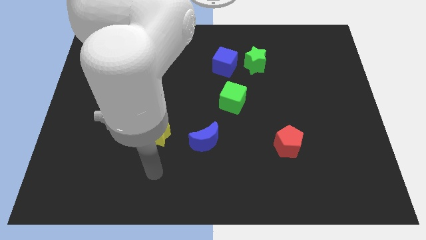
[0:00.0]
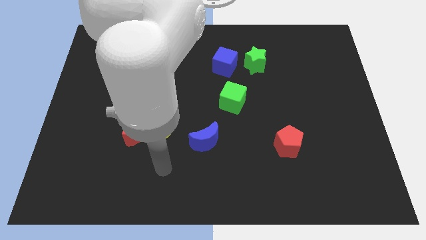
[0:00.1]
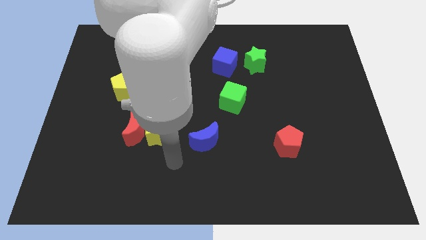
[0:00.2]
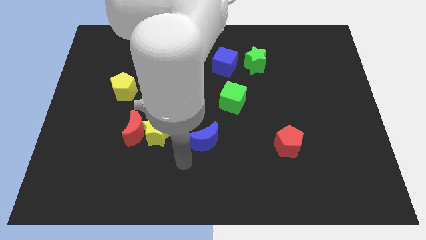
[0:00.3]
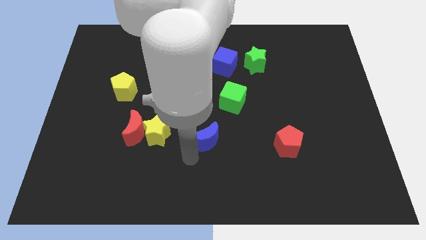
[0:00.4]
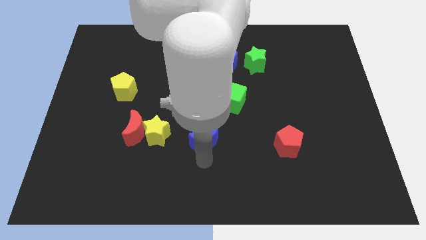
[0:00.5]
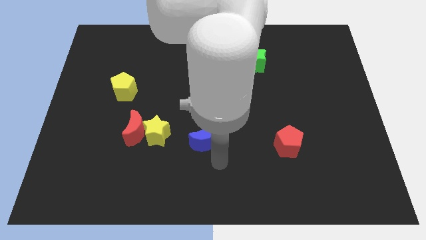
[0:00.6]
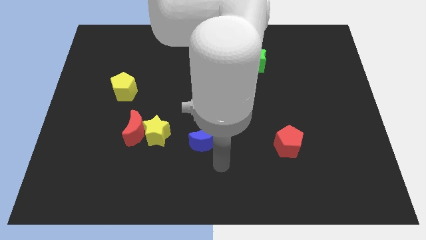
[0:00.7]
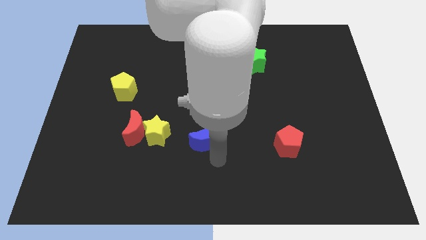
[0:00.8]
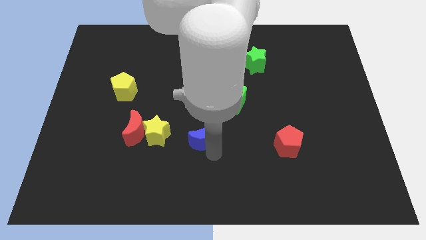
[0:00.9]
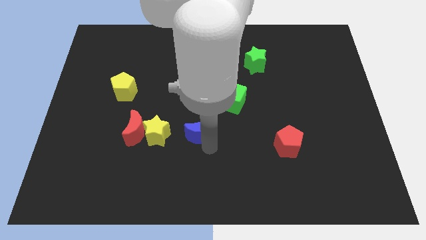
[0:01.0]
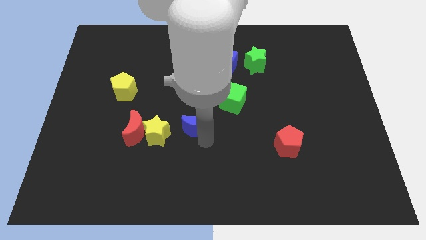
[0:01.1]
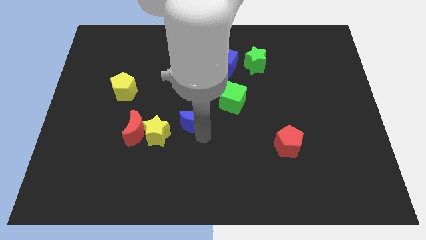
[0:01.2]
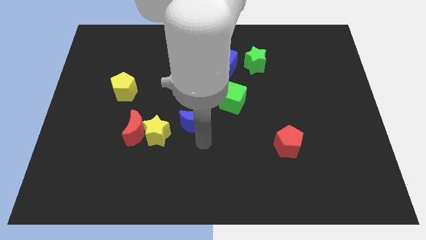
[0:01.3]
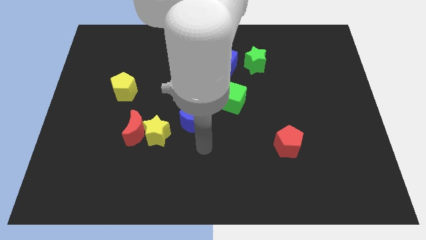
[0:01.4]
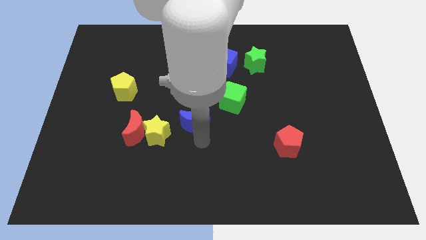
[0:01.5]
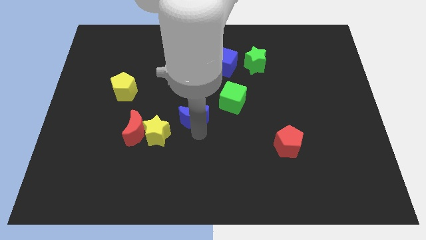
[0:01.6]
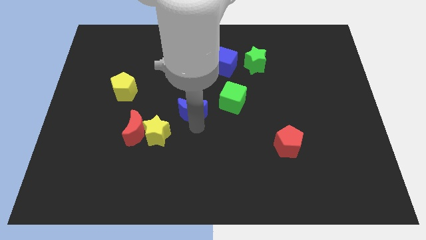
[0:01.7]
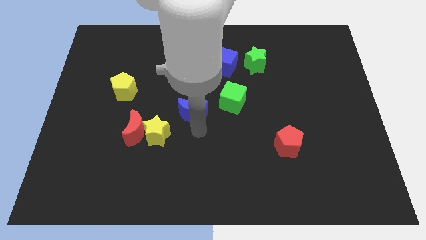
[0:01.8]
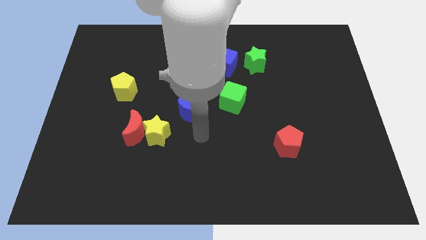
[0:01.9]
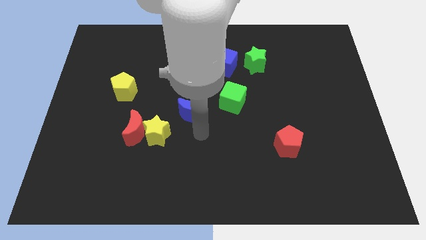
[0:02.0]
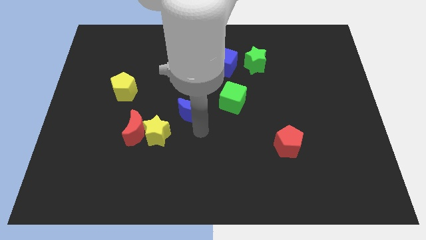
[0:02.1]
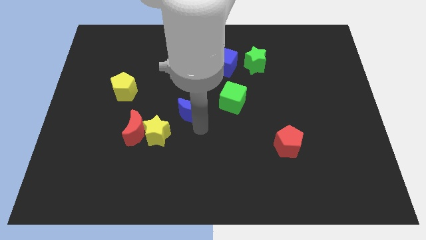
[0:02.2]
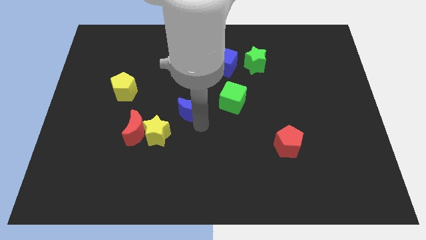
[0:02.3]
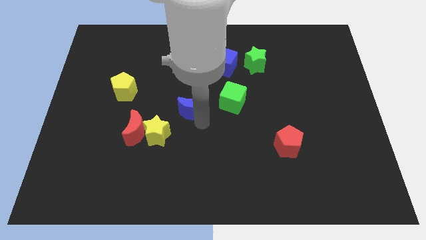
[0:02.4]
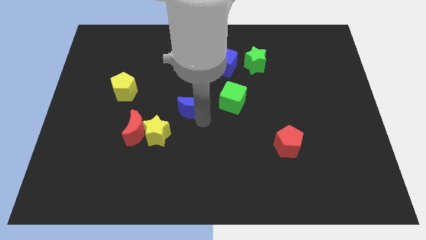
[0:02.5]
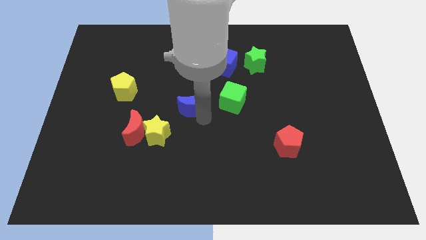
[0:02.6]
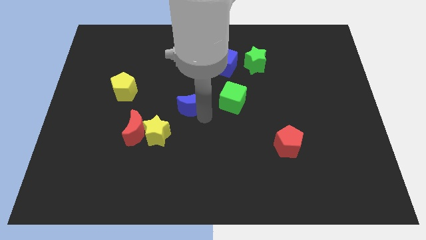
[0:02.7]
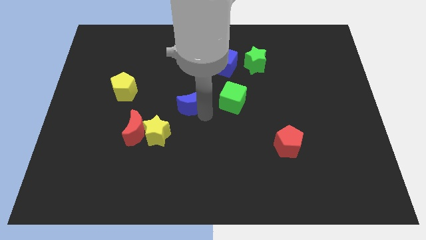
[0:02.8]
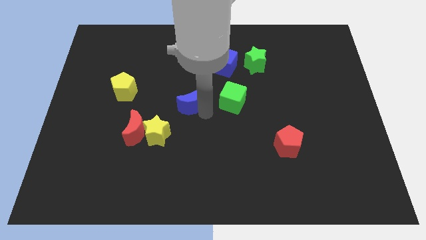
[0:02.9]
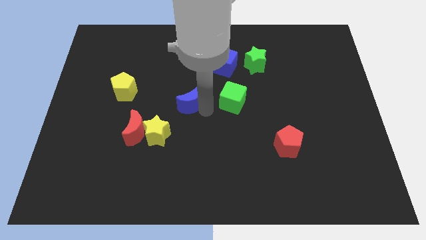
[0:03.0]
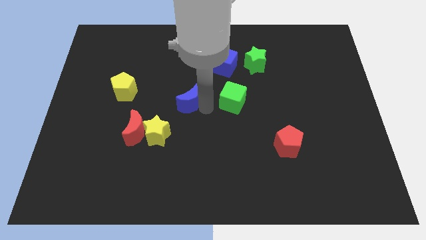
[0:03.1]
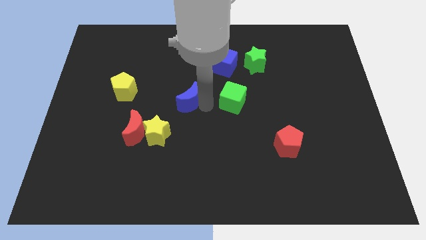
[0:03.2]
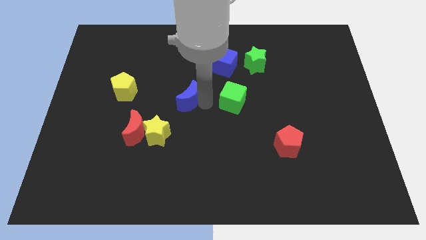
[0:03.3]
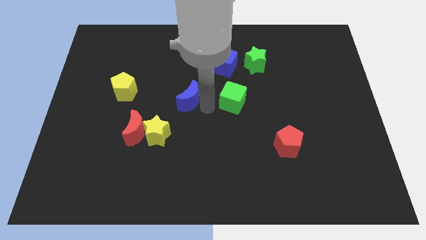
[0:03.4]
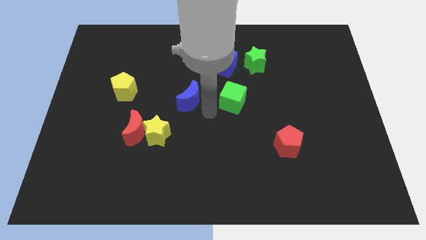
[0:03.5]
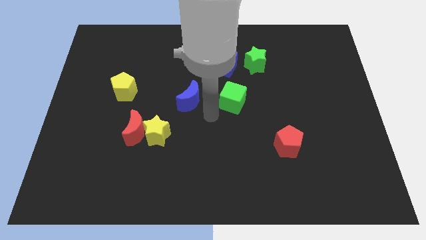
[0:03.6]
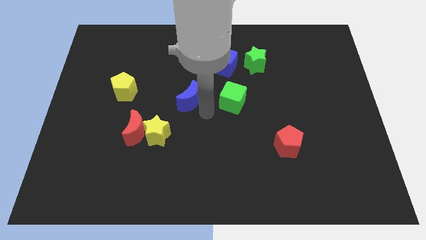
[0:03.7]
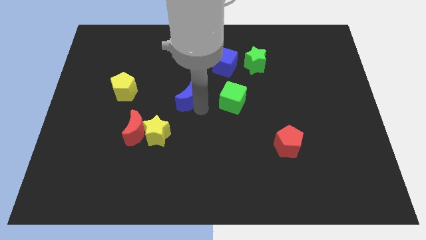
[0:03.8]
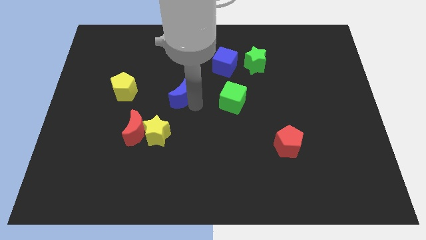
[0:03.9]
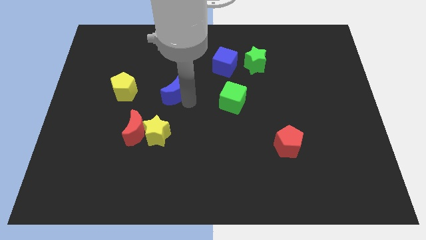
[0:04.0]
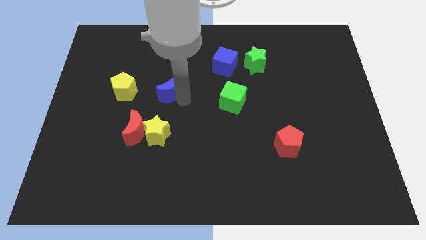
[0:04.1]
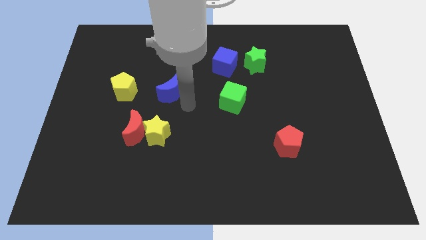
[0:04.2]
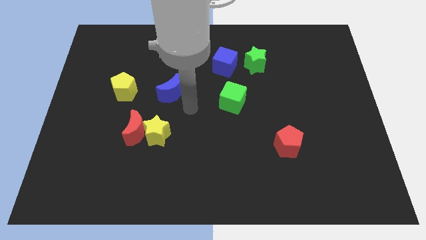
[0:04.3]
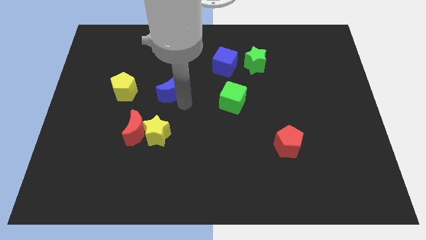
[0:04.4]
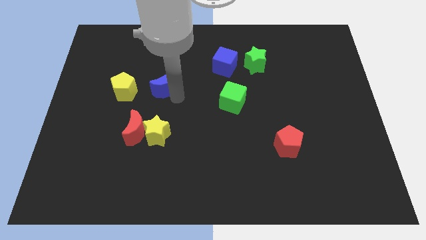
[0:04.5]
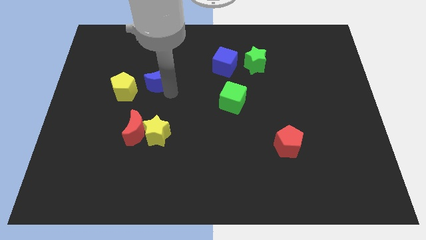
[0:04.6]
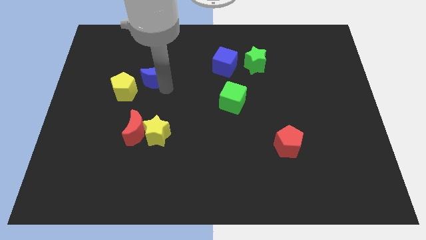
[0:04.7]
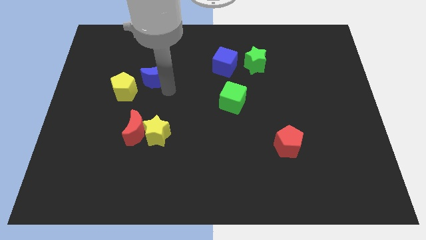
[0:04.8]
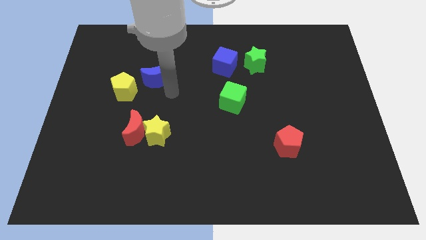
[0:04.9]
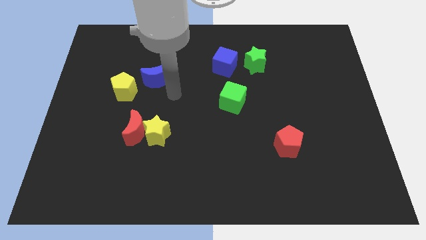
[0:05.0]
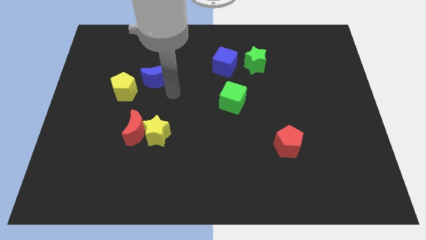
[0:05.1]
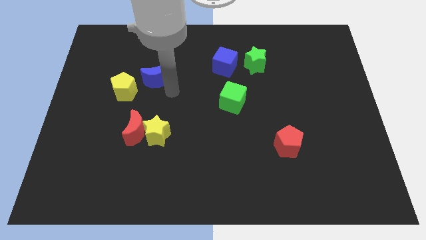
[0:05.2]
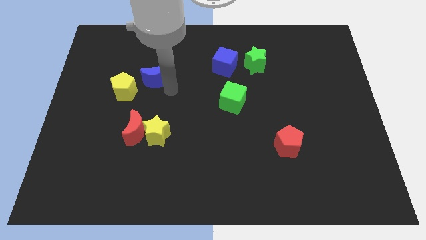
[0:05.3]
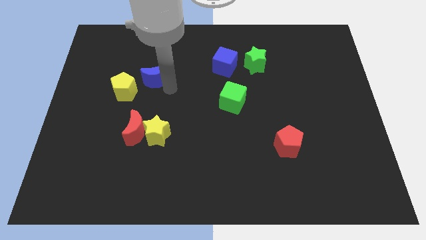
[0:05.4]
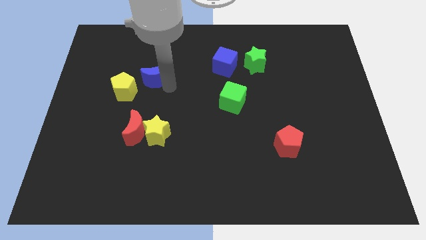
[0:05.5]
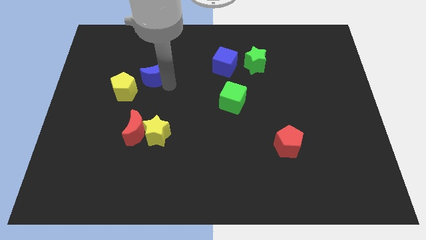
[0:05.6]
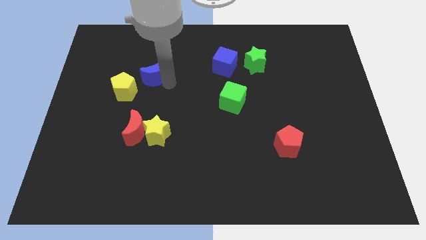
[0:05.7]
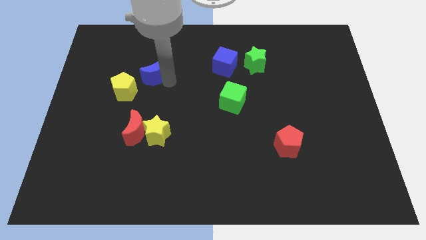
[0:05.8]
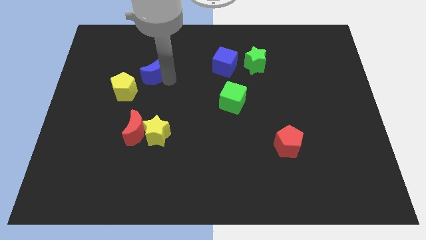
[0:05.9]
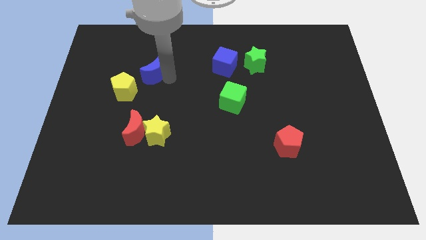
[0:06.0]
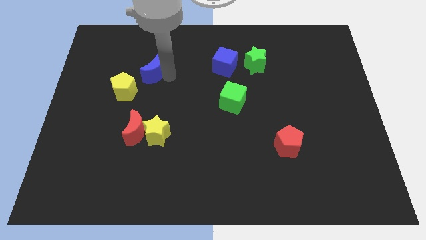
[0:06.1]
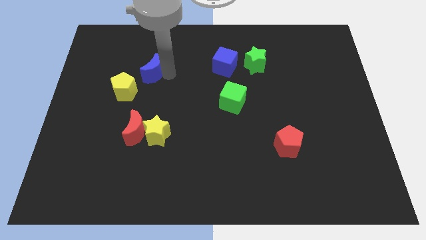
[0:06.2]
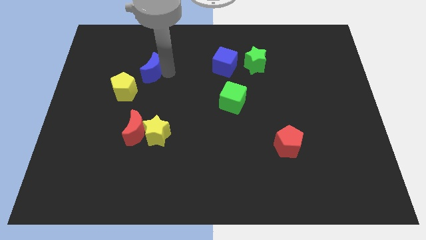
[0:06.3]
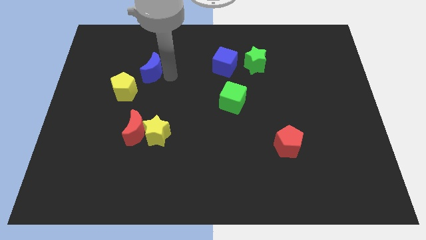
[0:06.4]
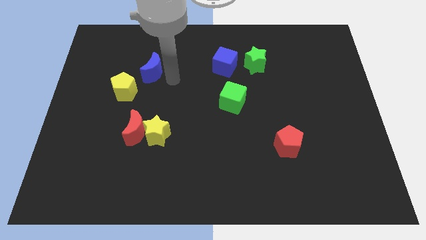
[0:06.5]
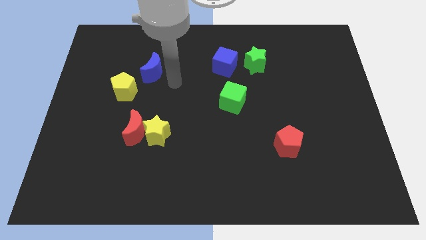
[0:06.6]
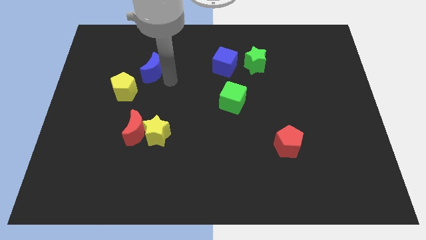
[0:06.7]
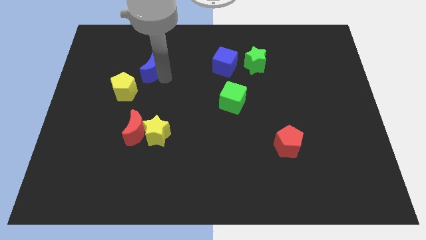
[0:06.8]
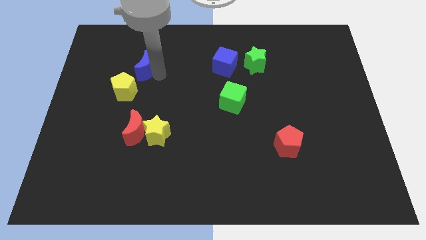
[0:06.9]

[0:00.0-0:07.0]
slide the blue moon to the top of the yellow pentagon
